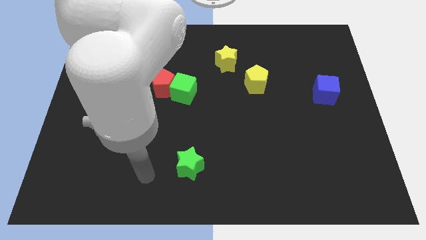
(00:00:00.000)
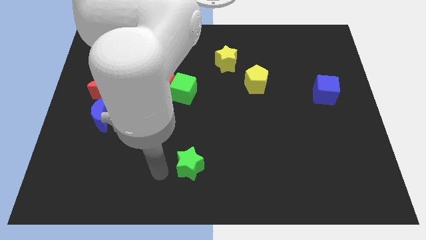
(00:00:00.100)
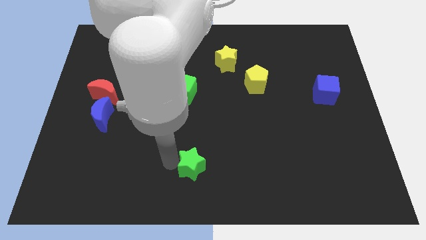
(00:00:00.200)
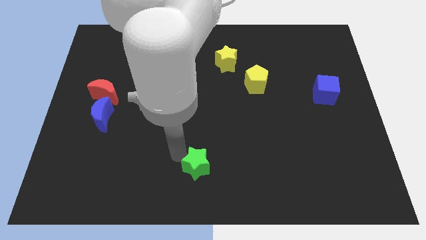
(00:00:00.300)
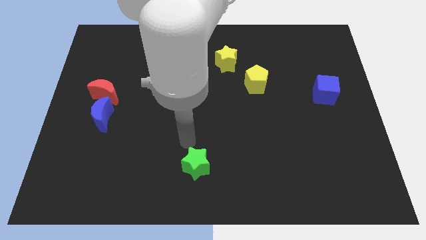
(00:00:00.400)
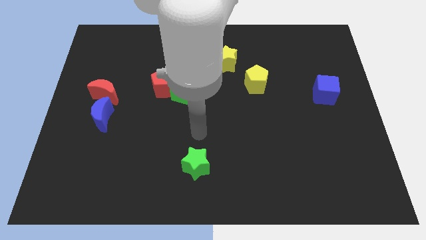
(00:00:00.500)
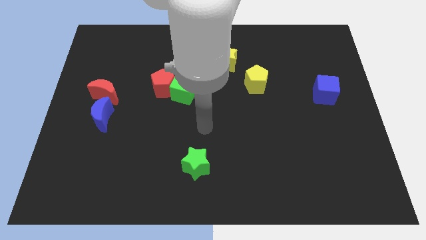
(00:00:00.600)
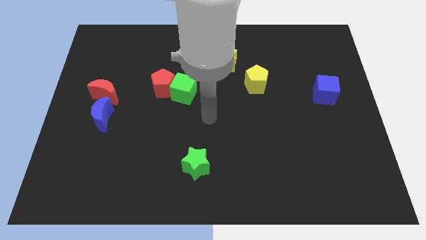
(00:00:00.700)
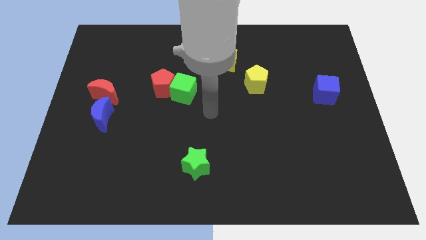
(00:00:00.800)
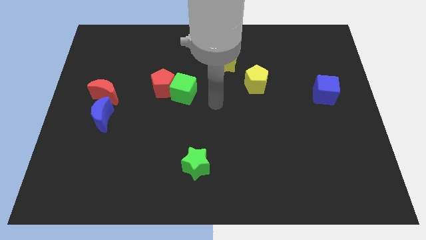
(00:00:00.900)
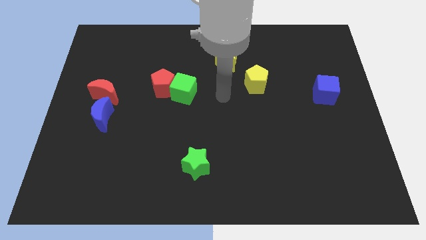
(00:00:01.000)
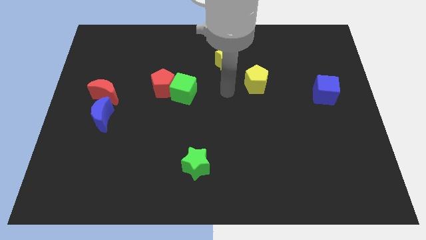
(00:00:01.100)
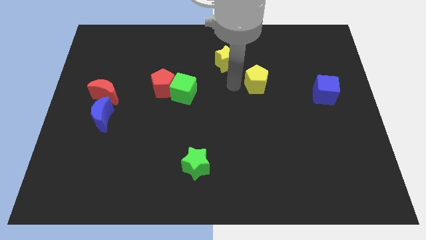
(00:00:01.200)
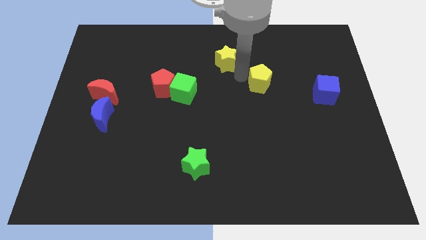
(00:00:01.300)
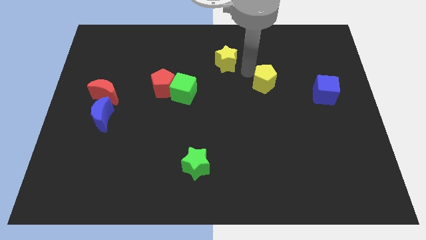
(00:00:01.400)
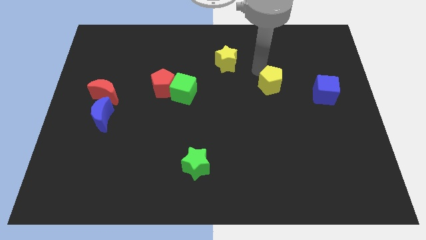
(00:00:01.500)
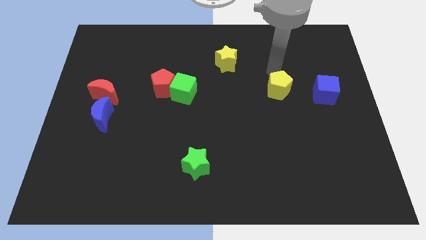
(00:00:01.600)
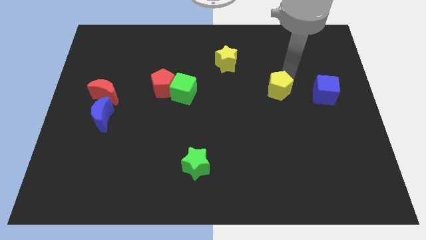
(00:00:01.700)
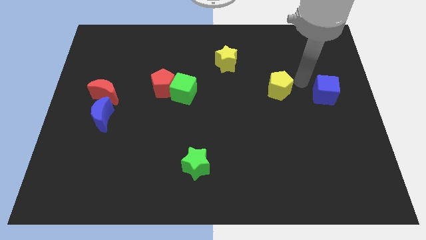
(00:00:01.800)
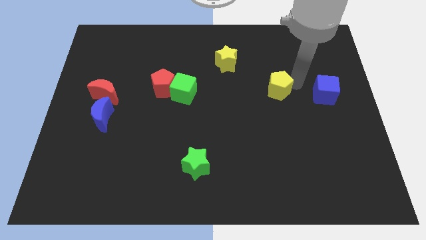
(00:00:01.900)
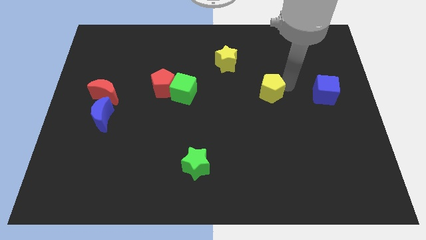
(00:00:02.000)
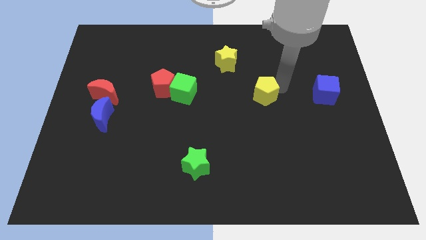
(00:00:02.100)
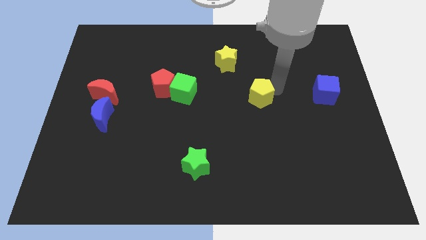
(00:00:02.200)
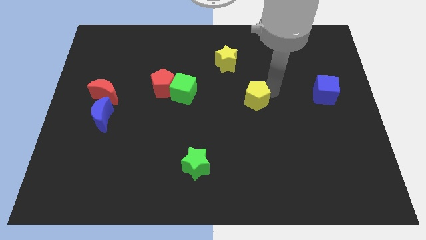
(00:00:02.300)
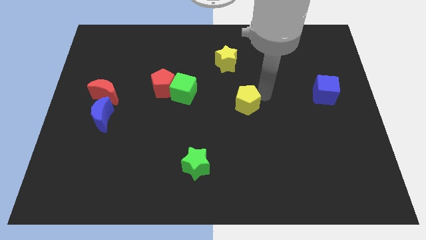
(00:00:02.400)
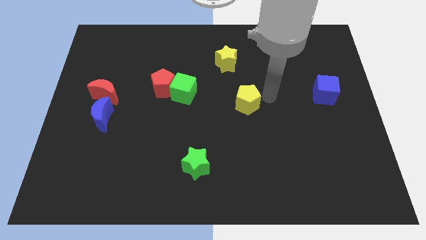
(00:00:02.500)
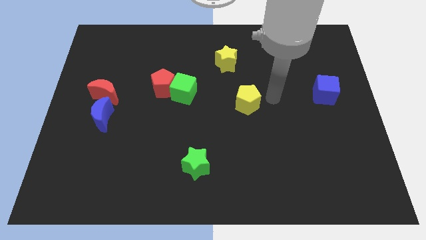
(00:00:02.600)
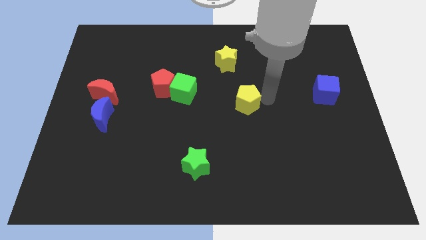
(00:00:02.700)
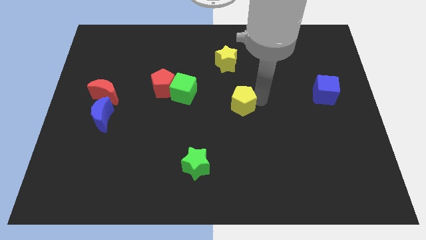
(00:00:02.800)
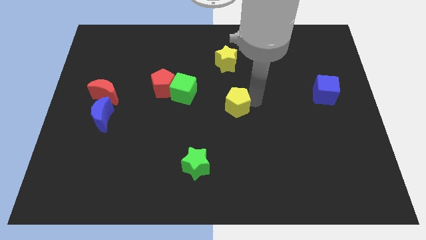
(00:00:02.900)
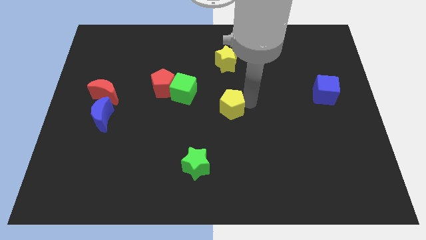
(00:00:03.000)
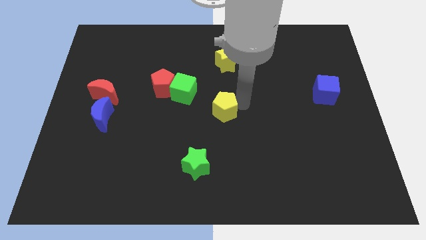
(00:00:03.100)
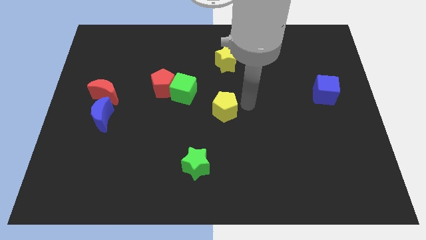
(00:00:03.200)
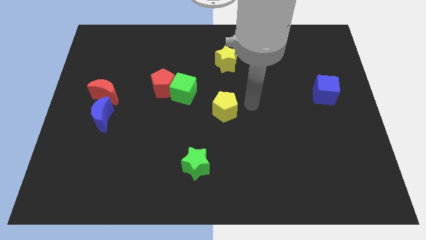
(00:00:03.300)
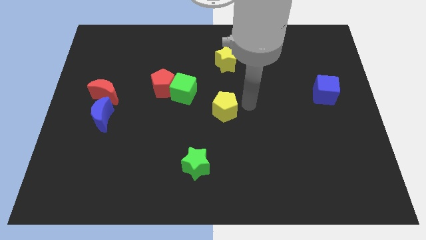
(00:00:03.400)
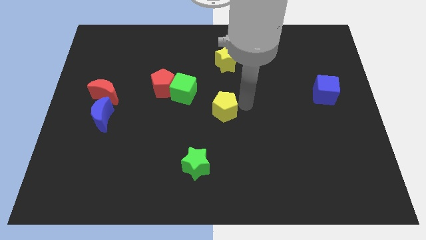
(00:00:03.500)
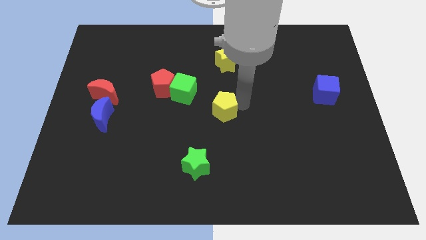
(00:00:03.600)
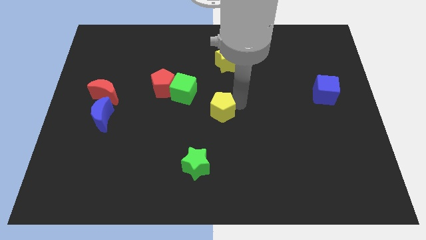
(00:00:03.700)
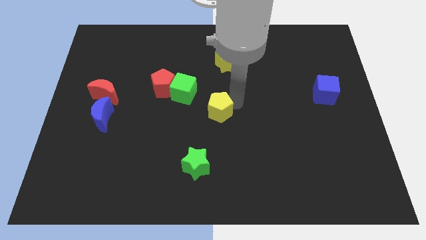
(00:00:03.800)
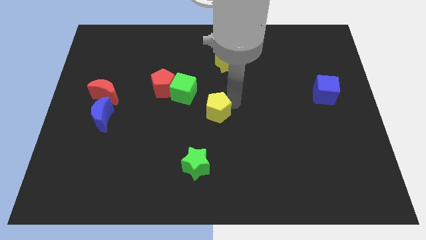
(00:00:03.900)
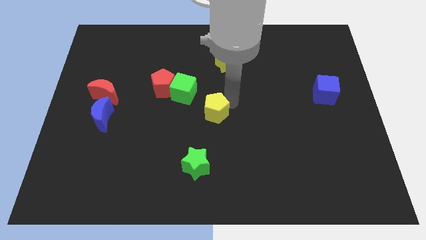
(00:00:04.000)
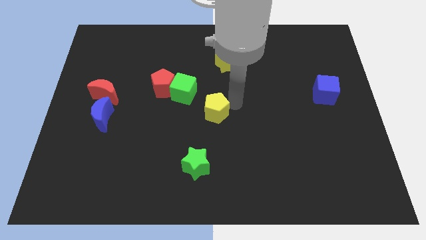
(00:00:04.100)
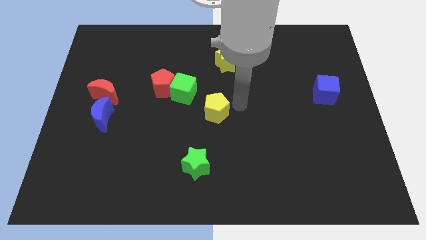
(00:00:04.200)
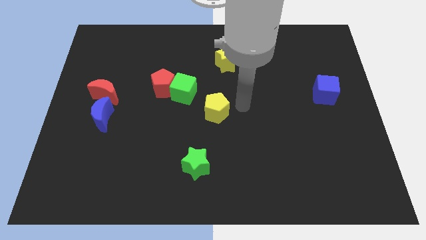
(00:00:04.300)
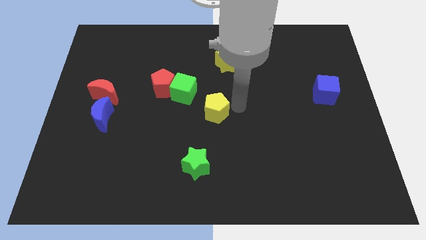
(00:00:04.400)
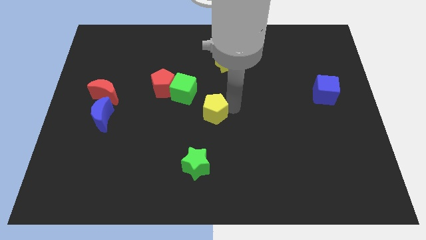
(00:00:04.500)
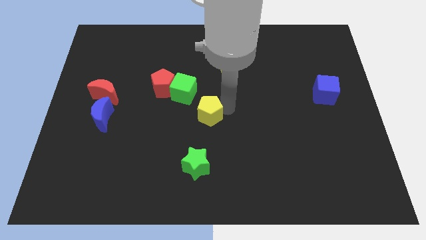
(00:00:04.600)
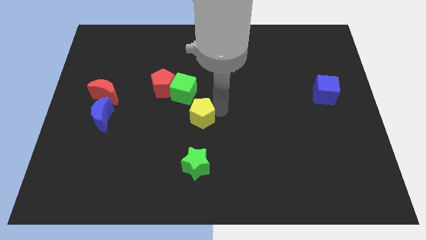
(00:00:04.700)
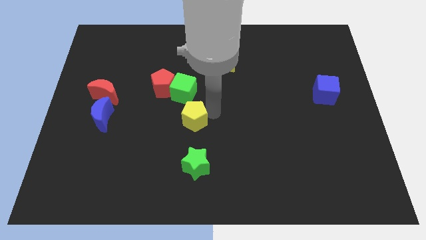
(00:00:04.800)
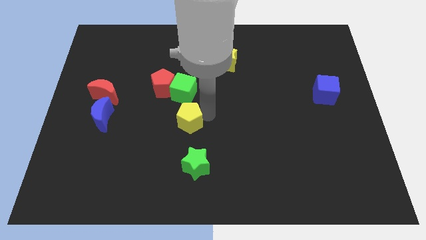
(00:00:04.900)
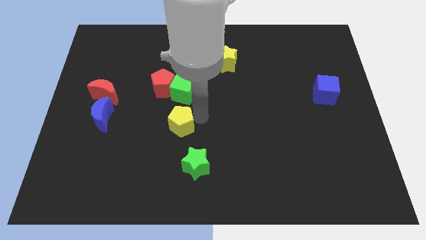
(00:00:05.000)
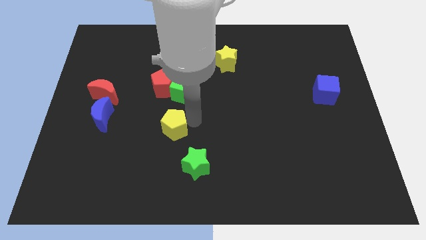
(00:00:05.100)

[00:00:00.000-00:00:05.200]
push the yellow pentagon below the red pentagon
